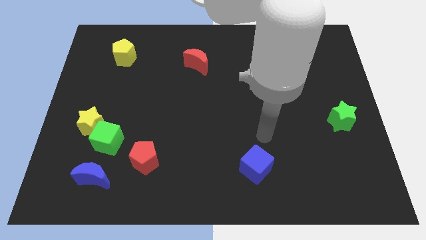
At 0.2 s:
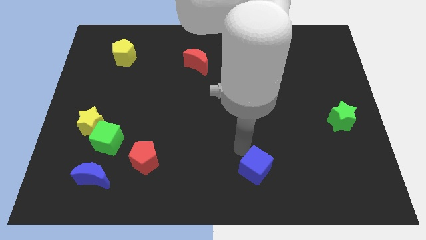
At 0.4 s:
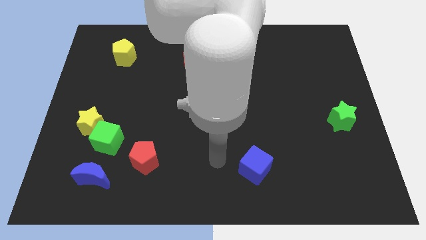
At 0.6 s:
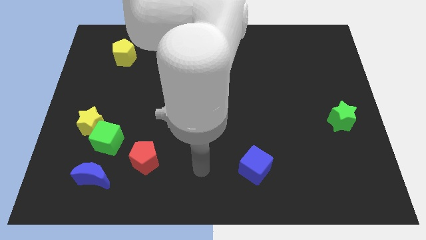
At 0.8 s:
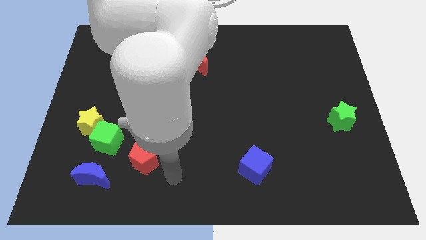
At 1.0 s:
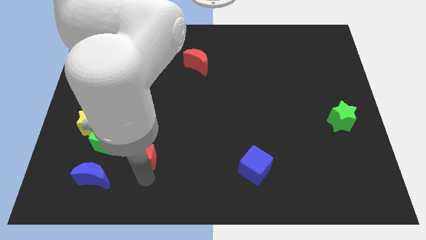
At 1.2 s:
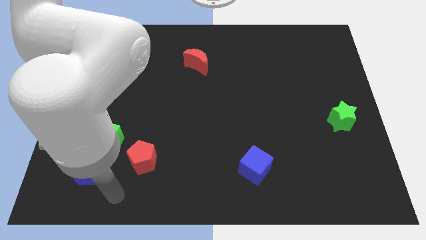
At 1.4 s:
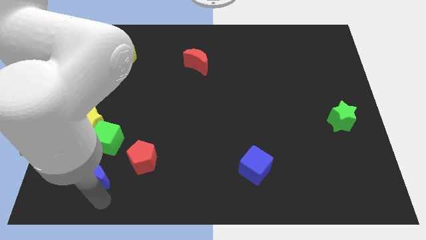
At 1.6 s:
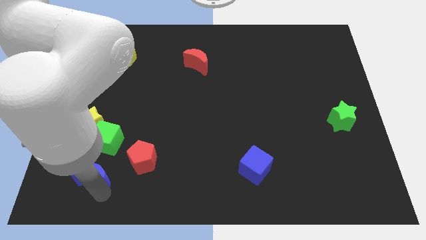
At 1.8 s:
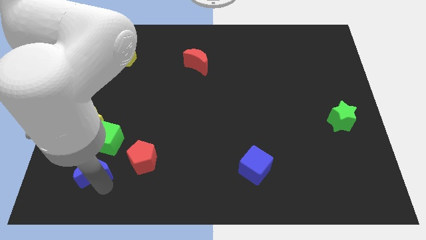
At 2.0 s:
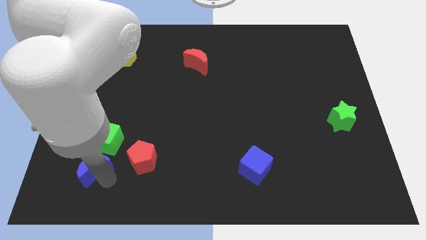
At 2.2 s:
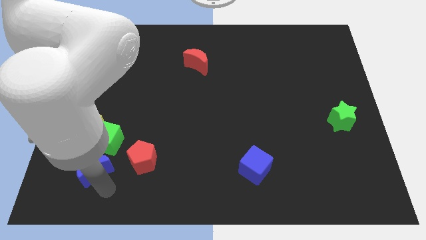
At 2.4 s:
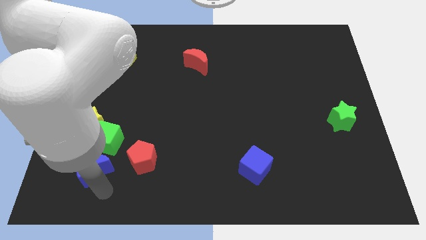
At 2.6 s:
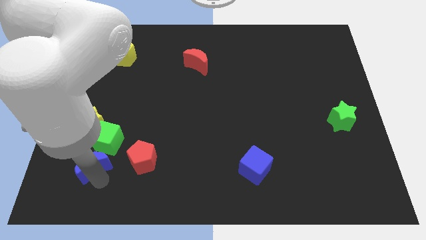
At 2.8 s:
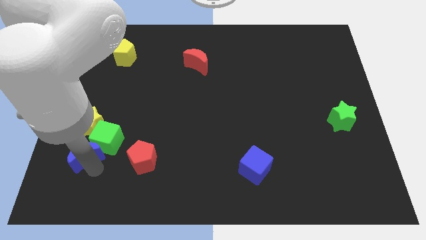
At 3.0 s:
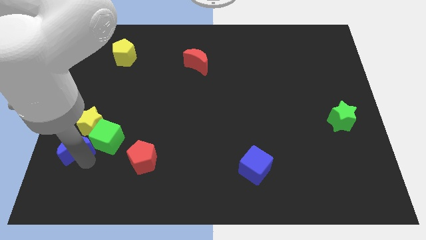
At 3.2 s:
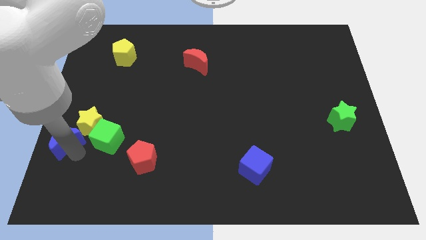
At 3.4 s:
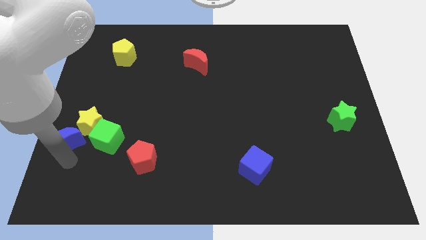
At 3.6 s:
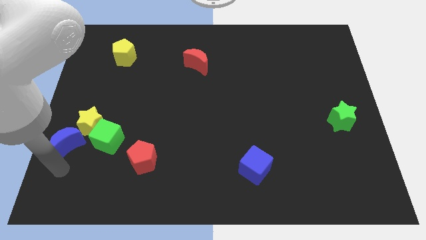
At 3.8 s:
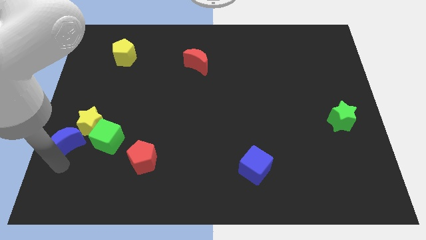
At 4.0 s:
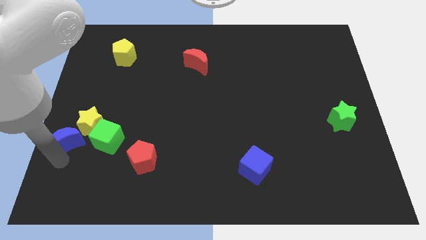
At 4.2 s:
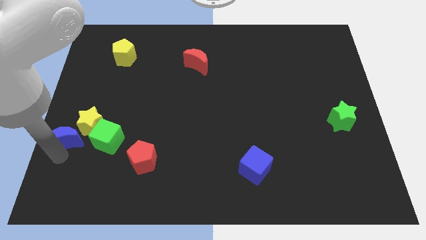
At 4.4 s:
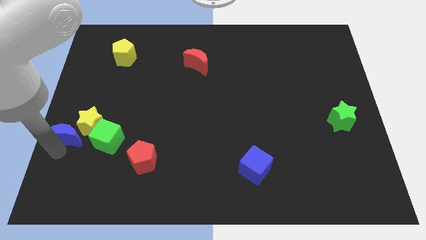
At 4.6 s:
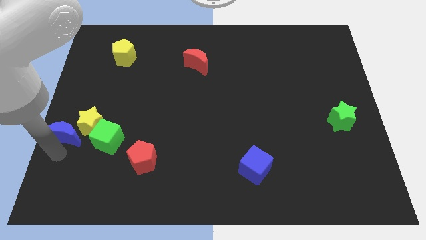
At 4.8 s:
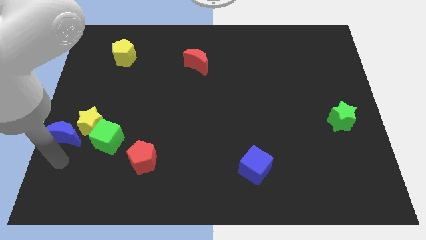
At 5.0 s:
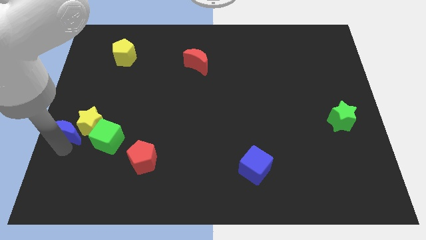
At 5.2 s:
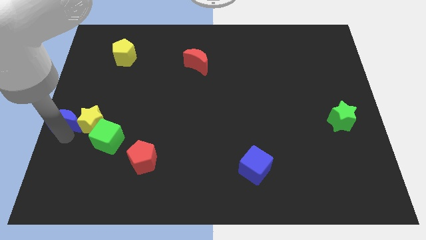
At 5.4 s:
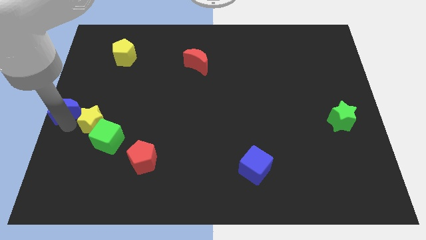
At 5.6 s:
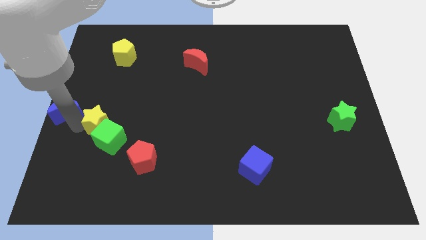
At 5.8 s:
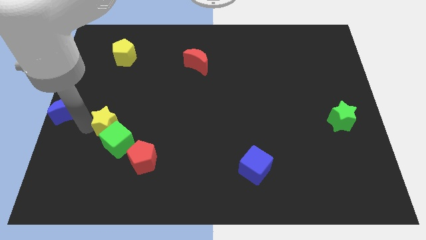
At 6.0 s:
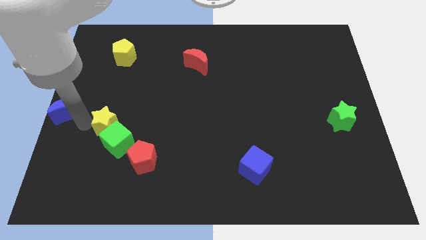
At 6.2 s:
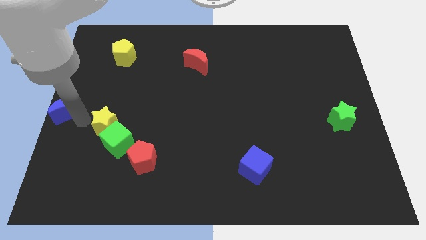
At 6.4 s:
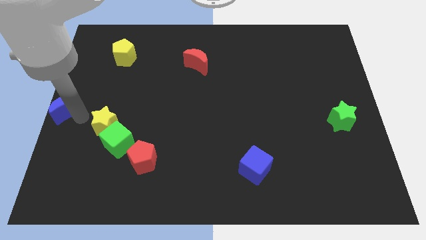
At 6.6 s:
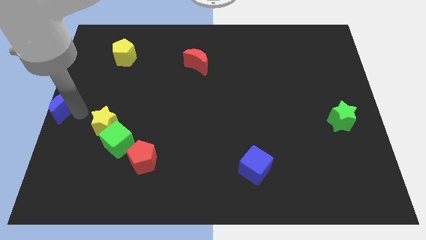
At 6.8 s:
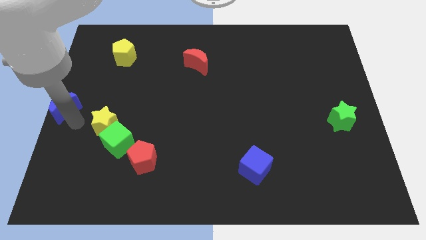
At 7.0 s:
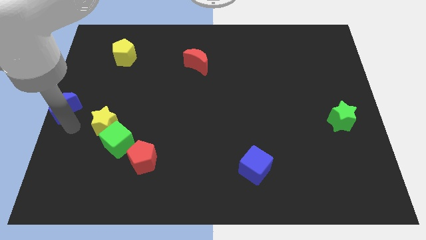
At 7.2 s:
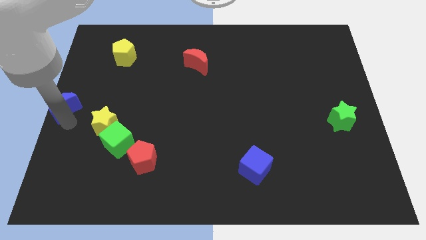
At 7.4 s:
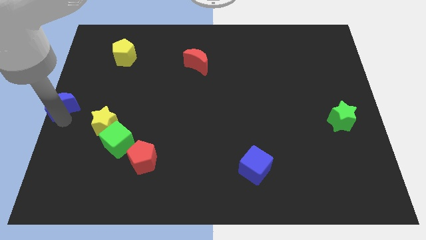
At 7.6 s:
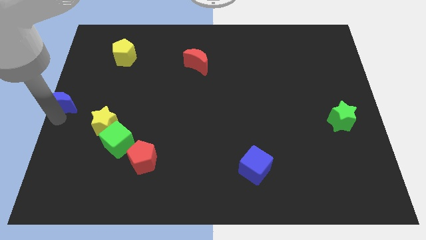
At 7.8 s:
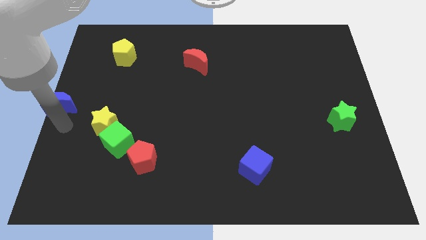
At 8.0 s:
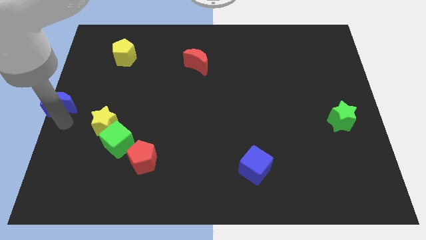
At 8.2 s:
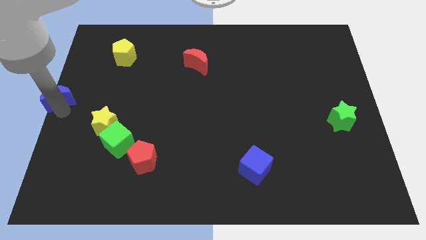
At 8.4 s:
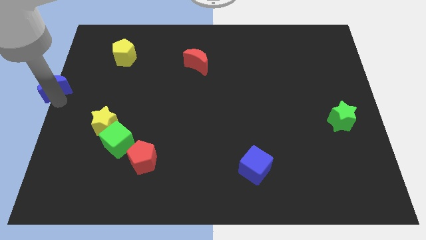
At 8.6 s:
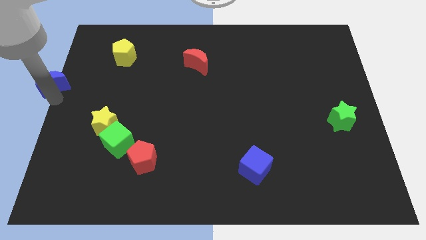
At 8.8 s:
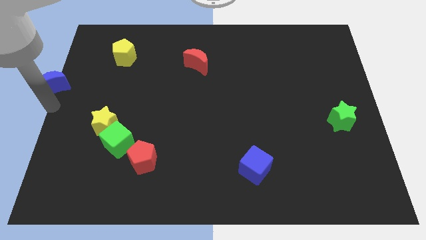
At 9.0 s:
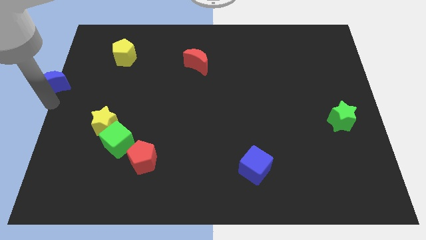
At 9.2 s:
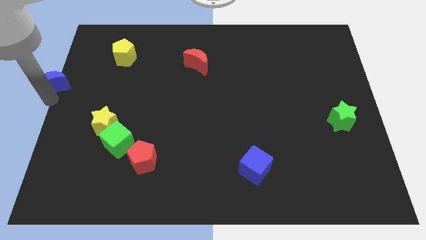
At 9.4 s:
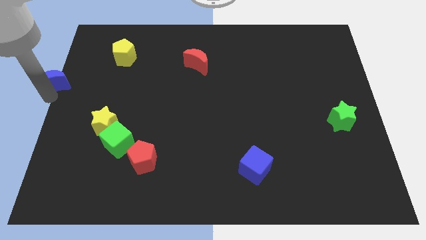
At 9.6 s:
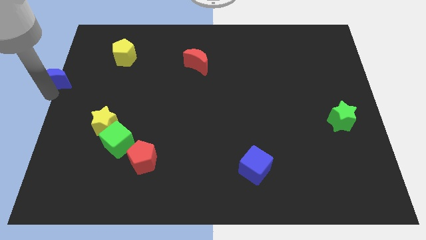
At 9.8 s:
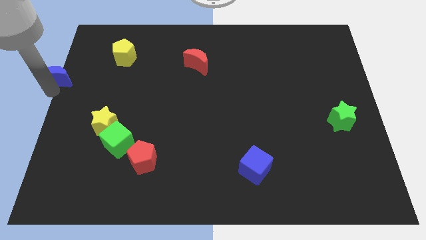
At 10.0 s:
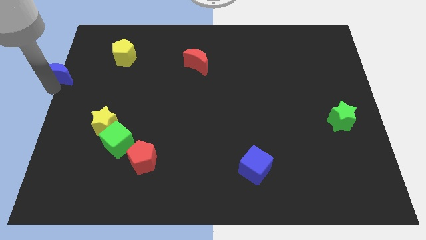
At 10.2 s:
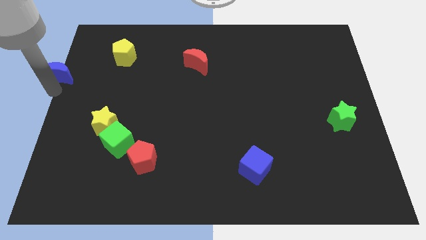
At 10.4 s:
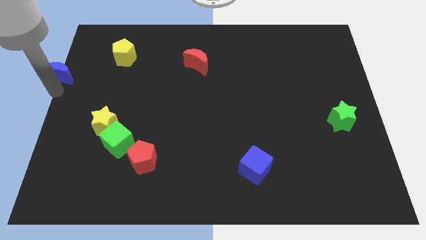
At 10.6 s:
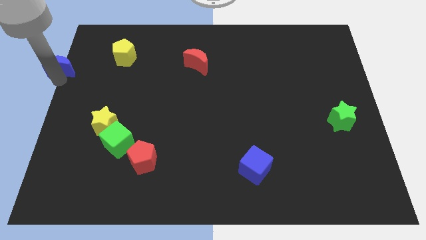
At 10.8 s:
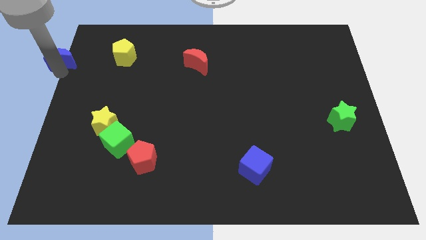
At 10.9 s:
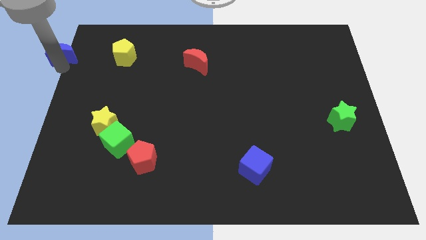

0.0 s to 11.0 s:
push the blue moon to the top left
